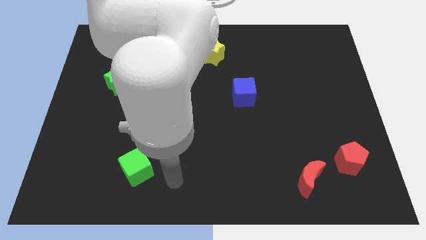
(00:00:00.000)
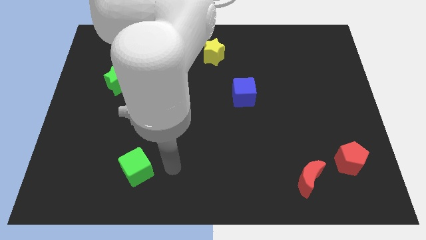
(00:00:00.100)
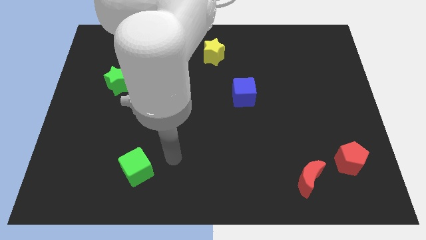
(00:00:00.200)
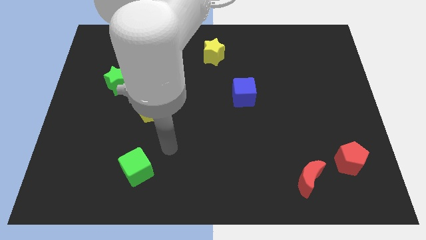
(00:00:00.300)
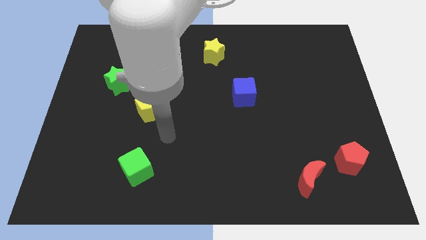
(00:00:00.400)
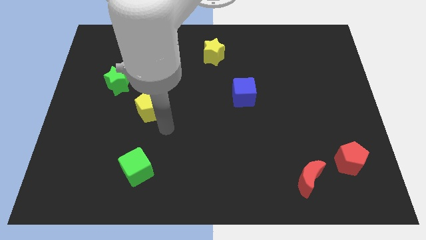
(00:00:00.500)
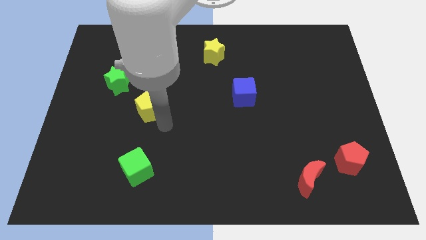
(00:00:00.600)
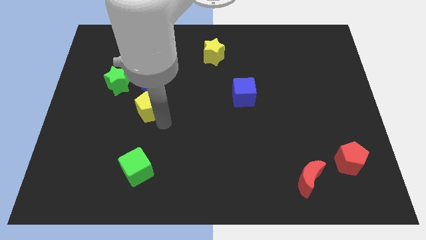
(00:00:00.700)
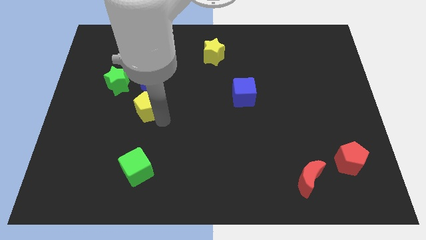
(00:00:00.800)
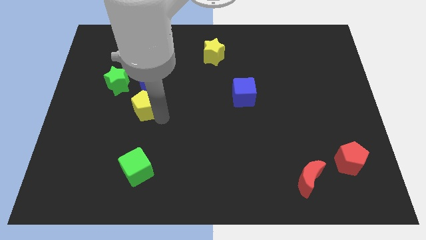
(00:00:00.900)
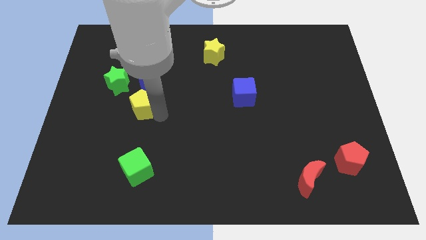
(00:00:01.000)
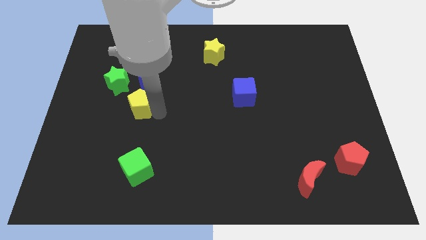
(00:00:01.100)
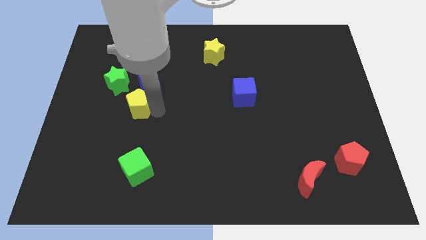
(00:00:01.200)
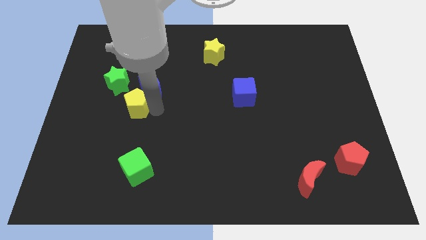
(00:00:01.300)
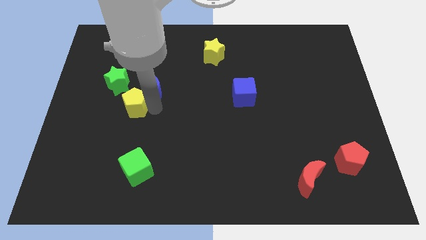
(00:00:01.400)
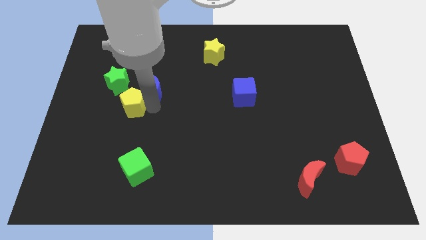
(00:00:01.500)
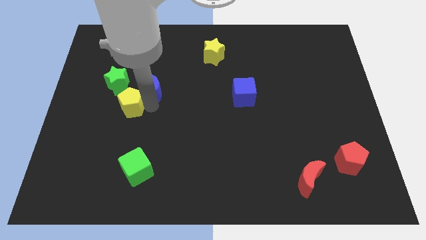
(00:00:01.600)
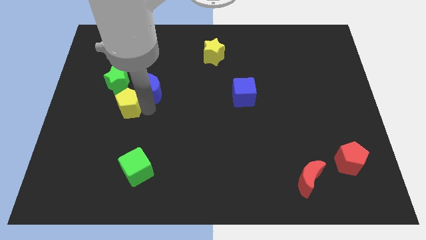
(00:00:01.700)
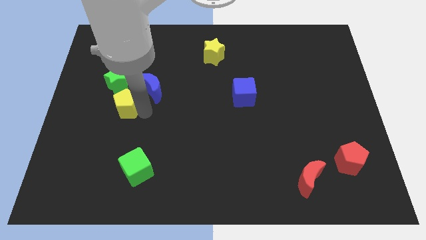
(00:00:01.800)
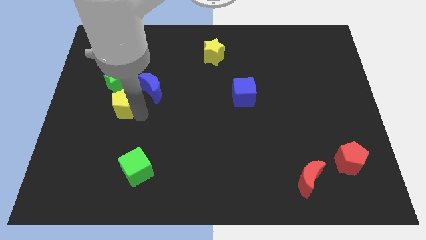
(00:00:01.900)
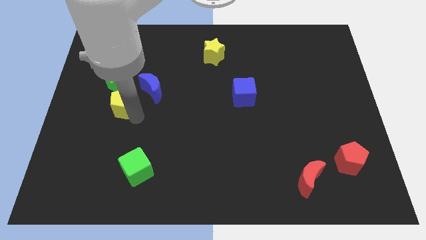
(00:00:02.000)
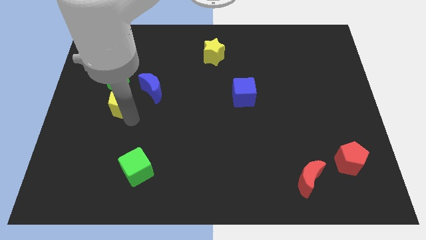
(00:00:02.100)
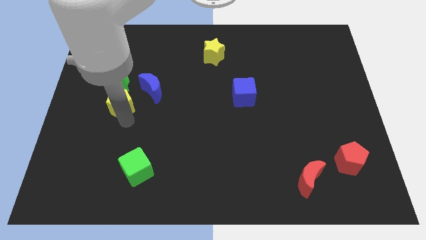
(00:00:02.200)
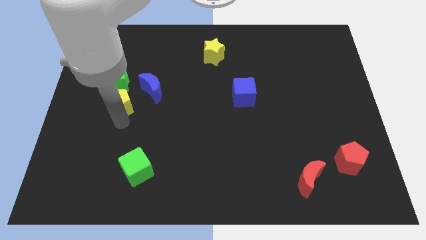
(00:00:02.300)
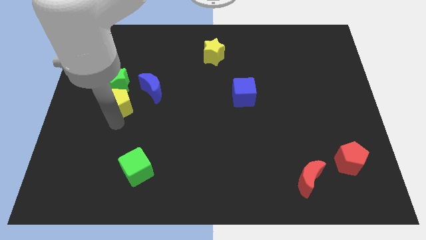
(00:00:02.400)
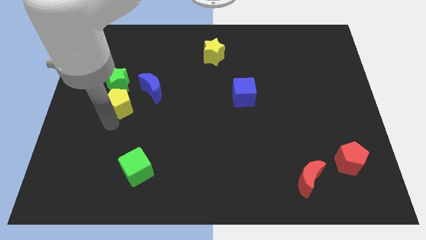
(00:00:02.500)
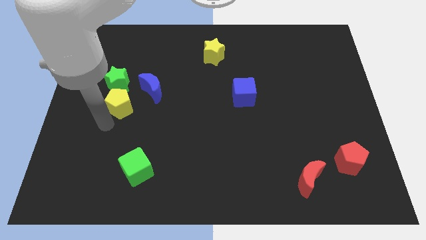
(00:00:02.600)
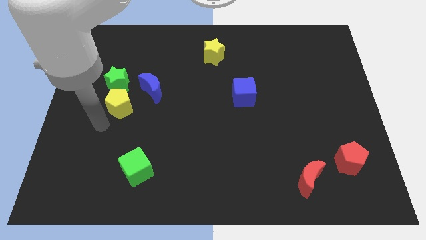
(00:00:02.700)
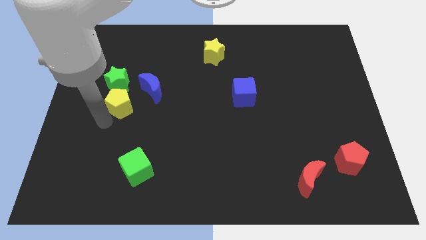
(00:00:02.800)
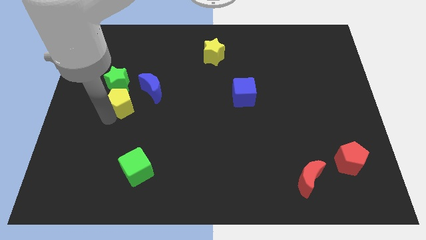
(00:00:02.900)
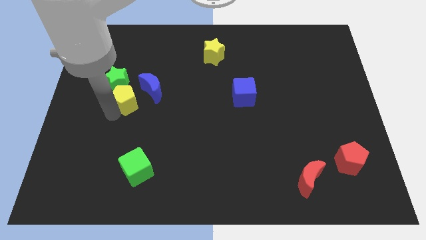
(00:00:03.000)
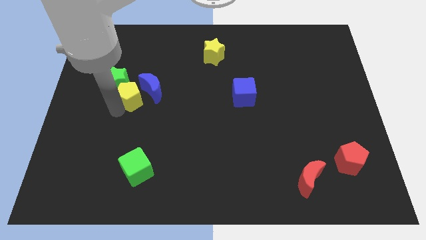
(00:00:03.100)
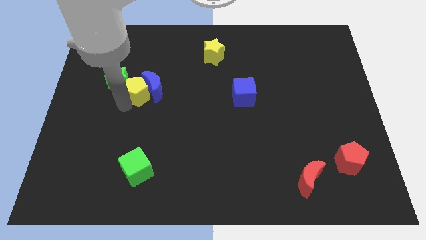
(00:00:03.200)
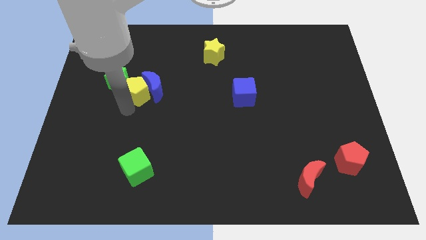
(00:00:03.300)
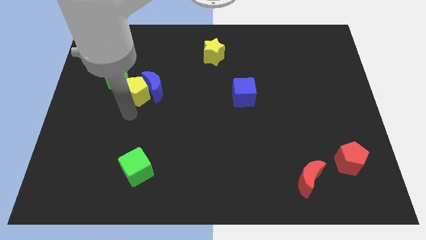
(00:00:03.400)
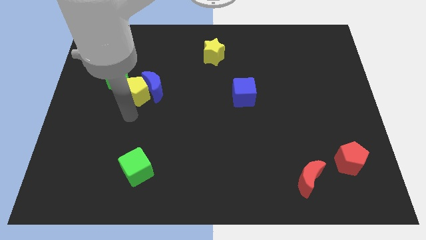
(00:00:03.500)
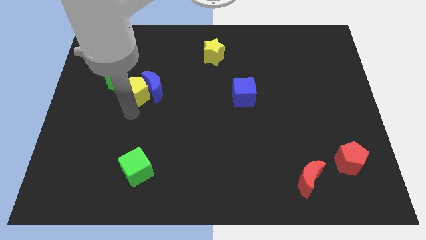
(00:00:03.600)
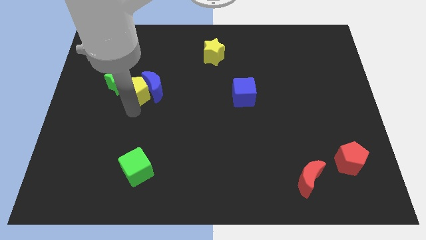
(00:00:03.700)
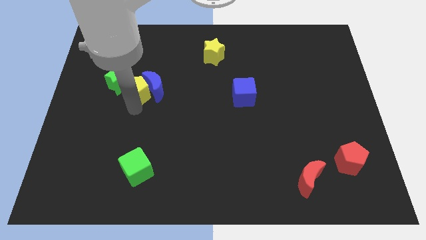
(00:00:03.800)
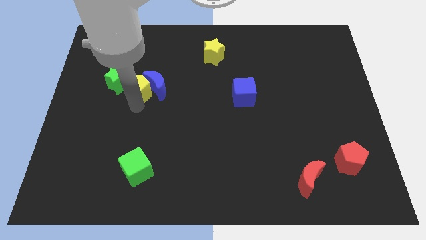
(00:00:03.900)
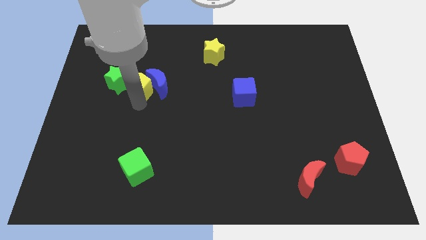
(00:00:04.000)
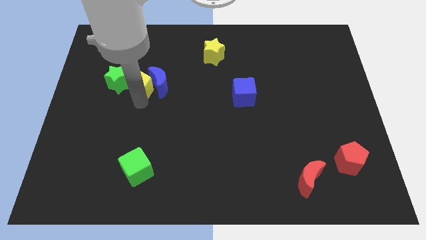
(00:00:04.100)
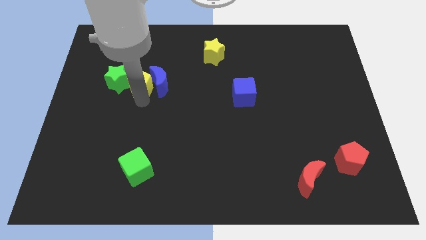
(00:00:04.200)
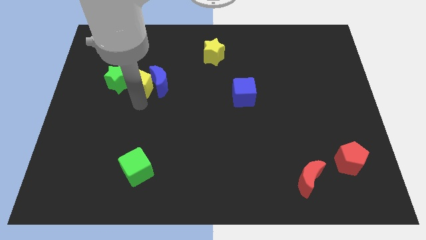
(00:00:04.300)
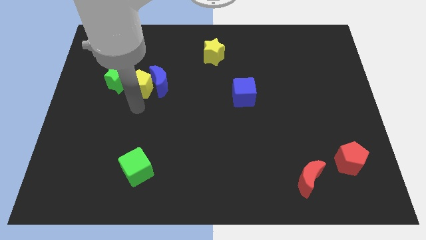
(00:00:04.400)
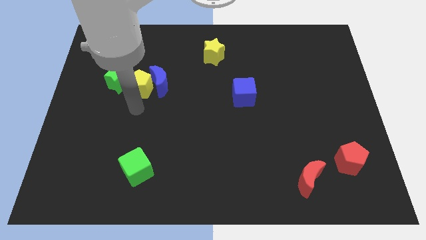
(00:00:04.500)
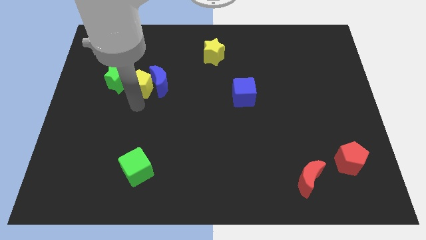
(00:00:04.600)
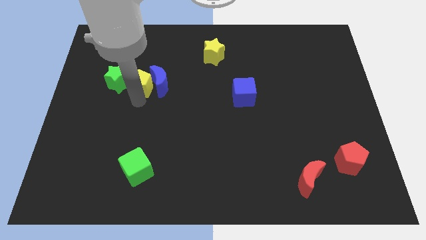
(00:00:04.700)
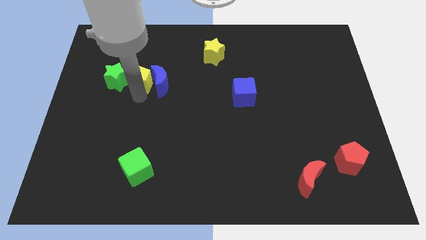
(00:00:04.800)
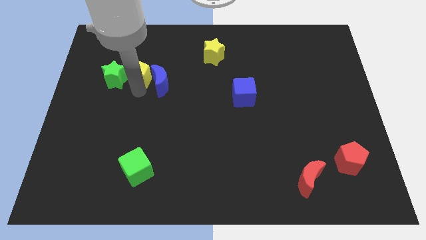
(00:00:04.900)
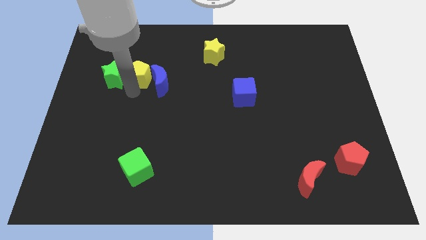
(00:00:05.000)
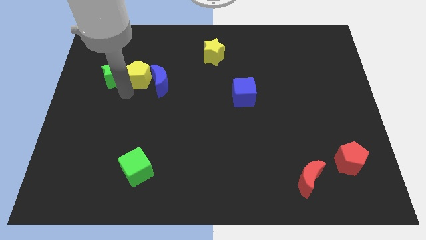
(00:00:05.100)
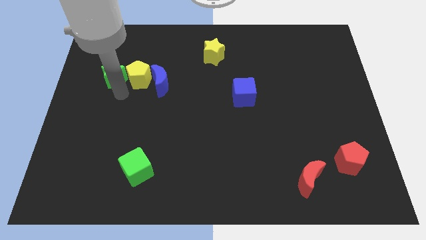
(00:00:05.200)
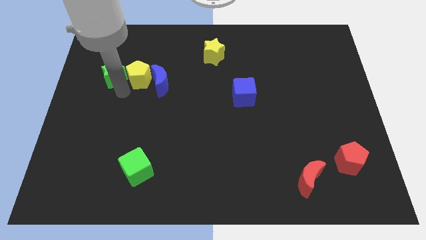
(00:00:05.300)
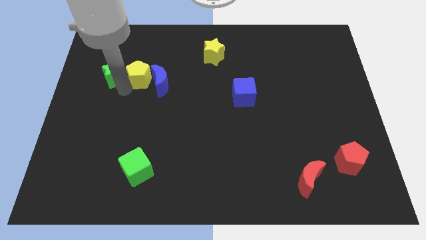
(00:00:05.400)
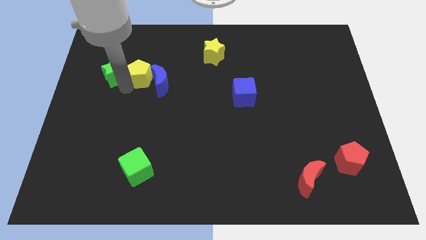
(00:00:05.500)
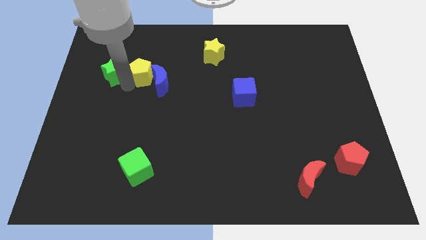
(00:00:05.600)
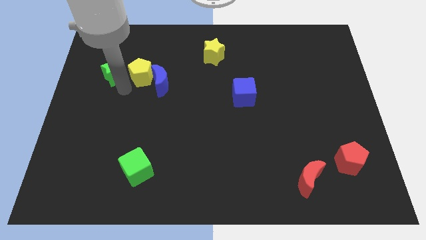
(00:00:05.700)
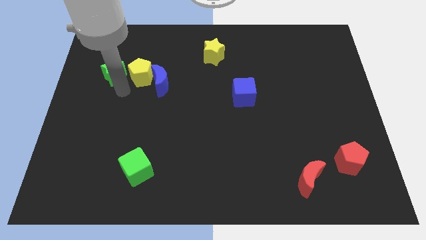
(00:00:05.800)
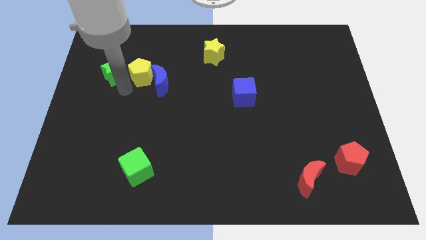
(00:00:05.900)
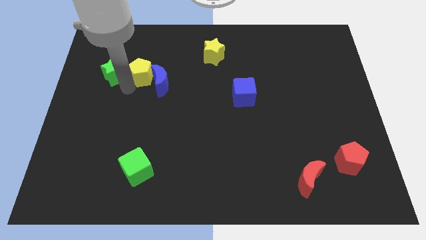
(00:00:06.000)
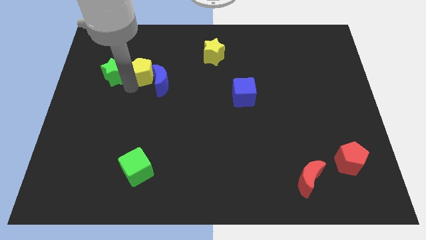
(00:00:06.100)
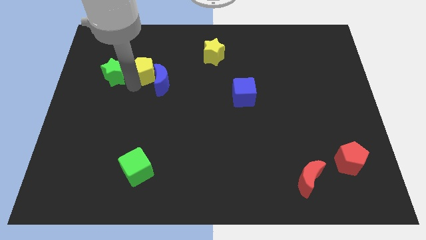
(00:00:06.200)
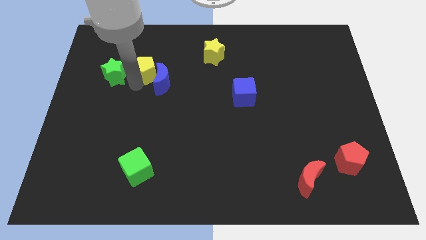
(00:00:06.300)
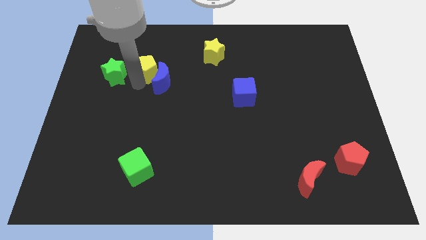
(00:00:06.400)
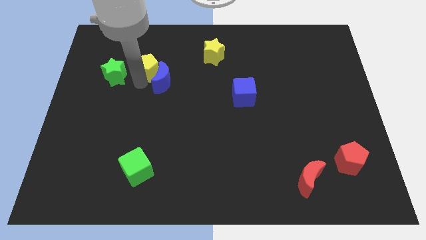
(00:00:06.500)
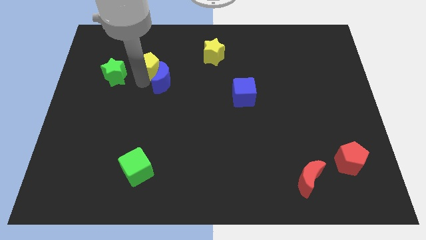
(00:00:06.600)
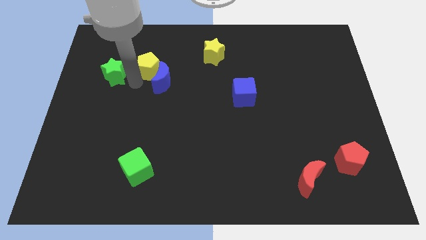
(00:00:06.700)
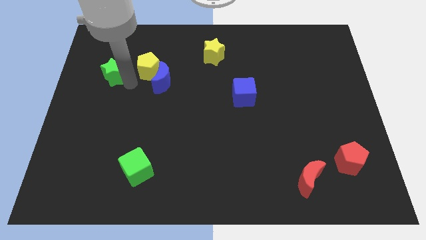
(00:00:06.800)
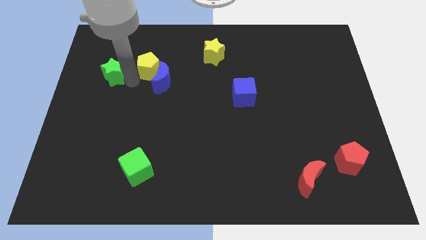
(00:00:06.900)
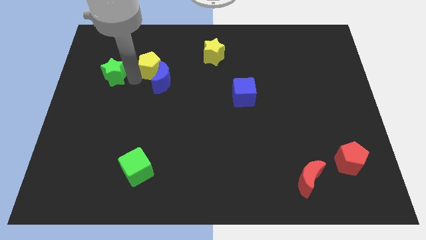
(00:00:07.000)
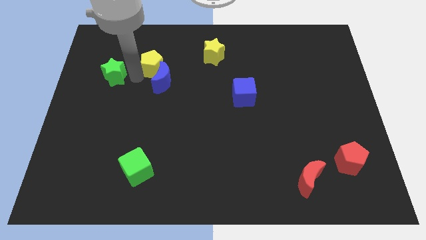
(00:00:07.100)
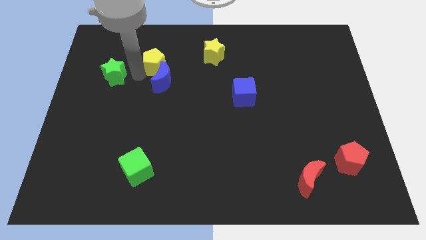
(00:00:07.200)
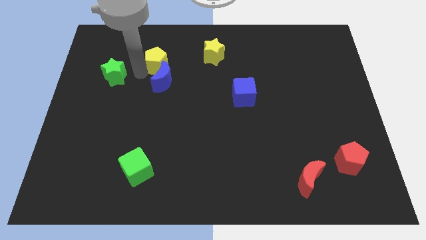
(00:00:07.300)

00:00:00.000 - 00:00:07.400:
slide the yellow pentagon just left of the yellow star
